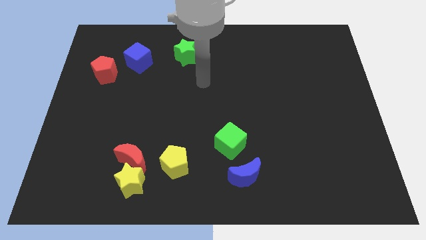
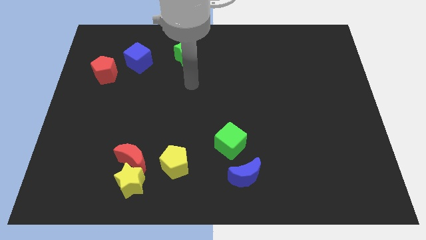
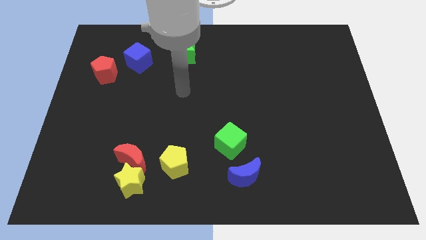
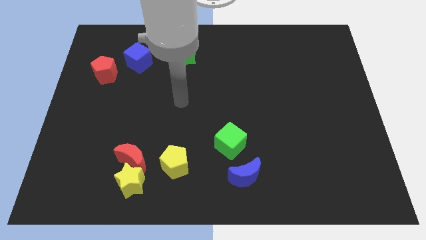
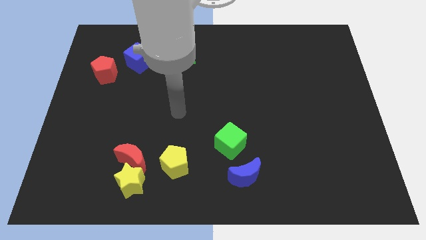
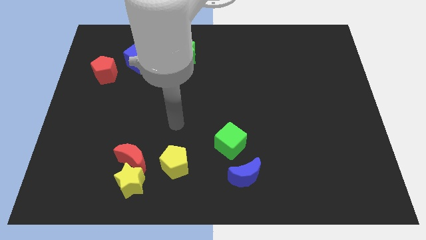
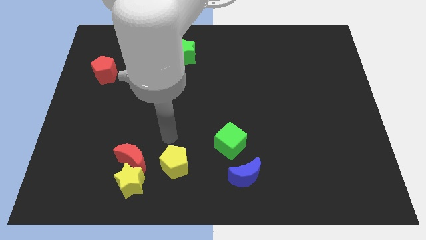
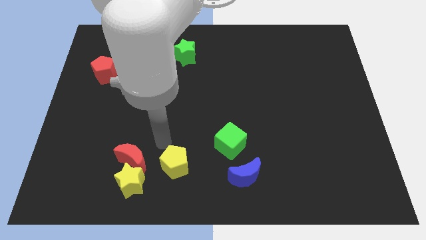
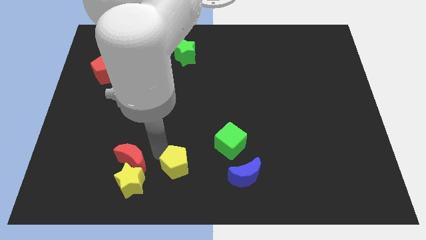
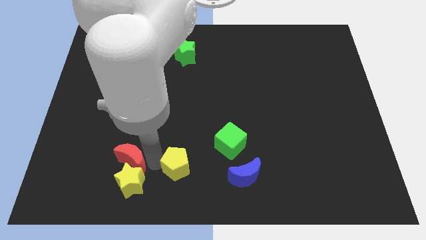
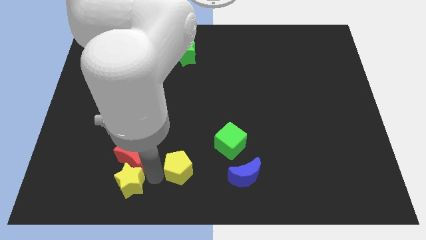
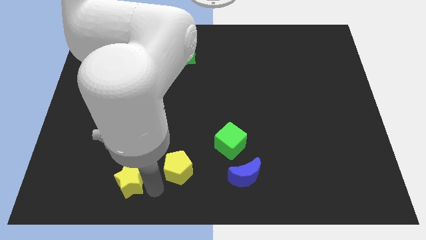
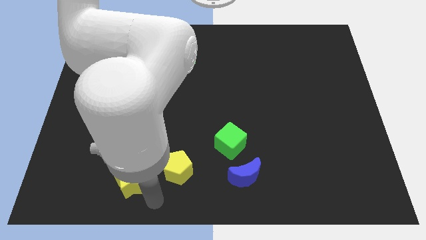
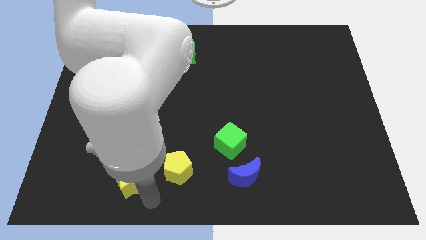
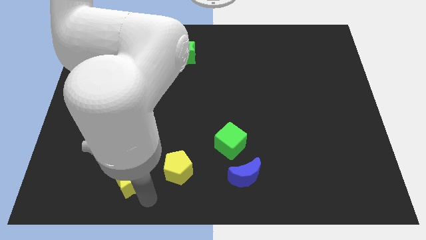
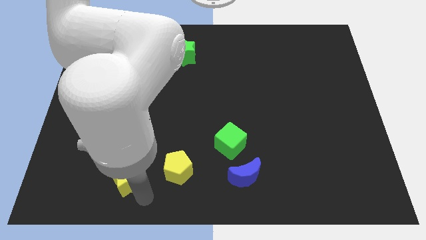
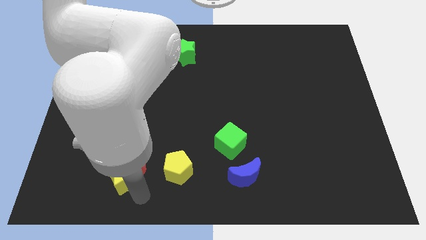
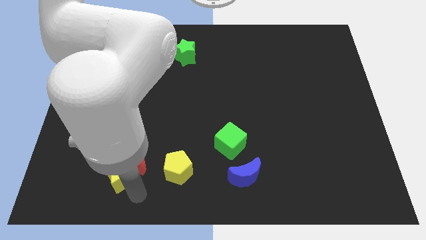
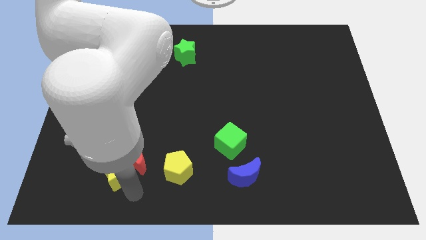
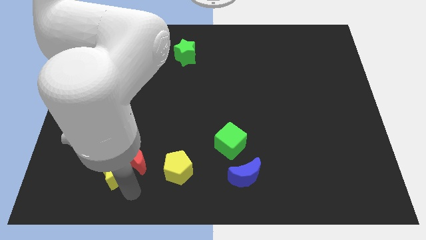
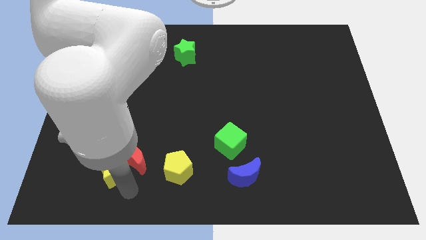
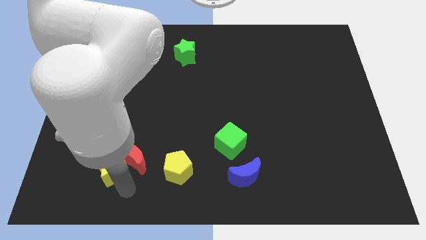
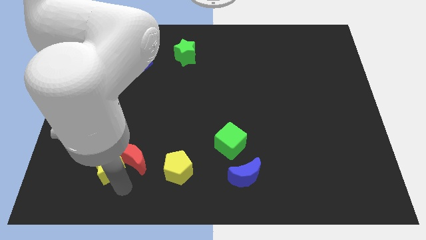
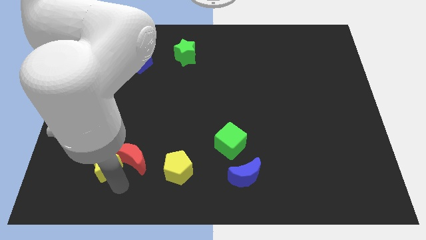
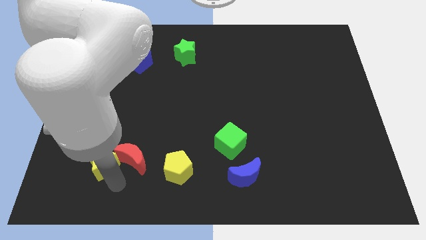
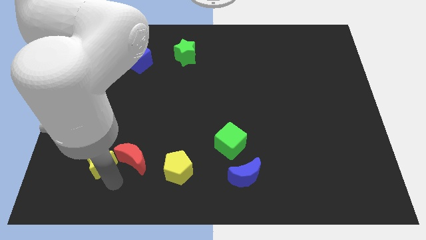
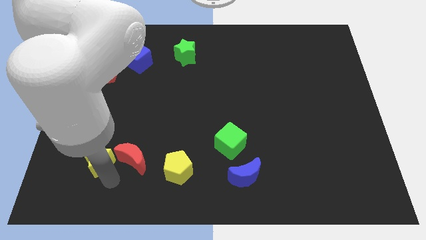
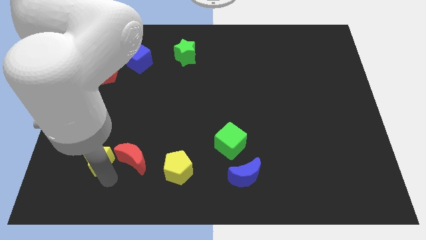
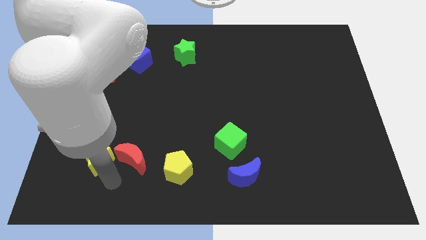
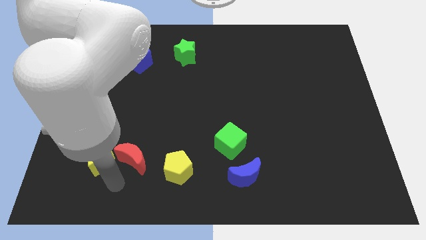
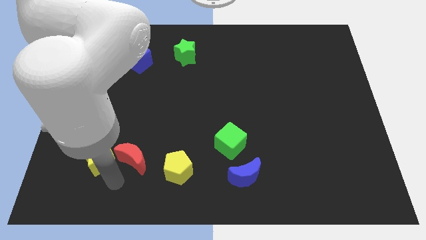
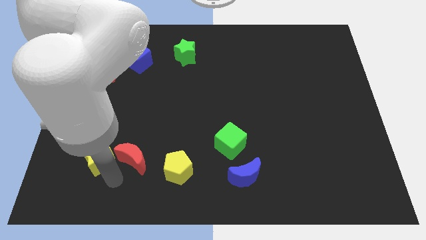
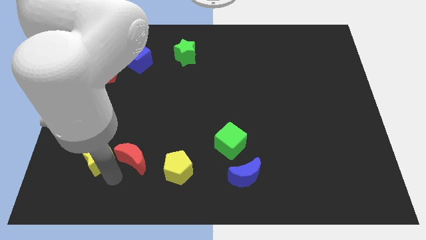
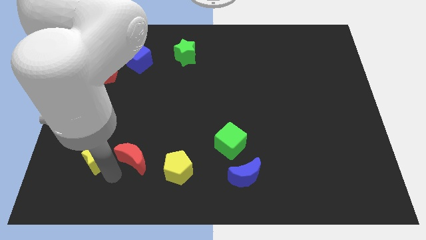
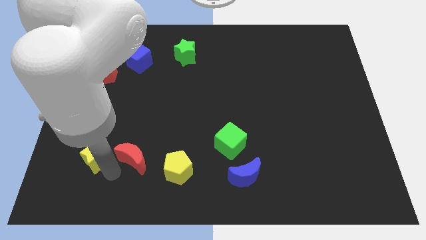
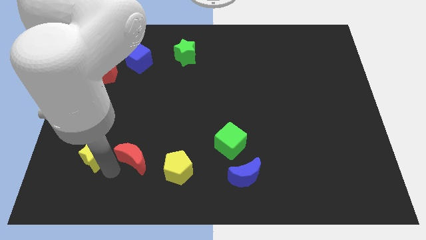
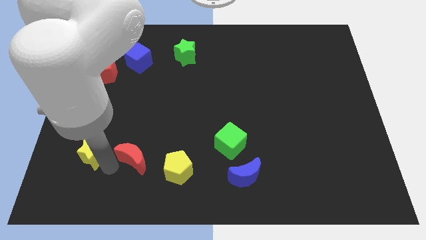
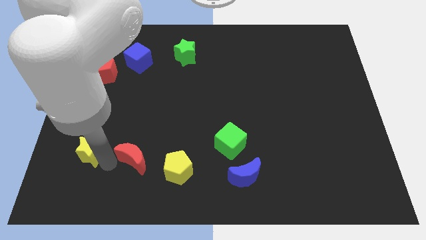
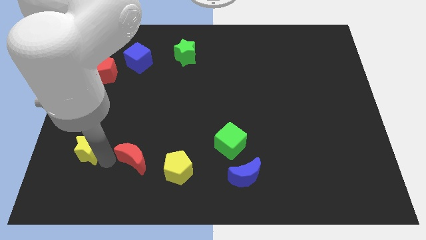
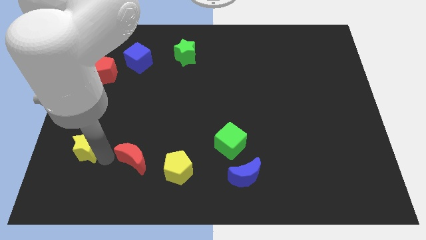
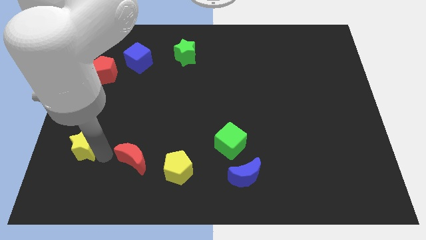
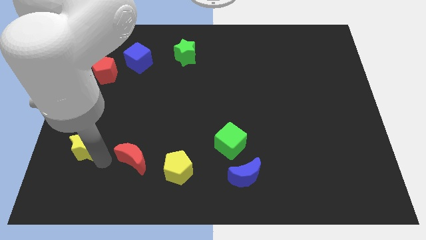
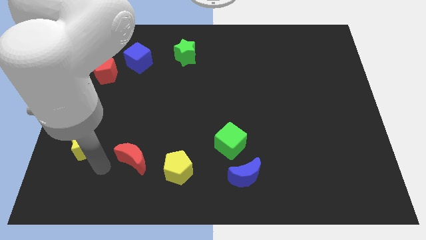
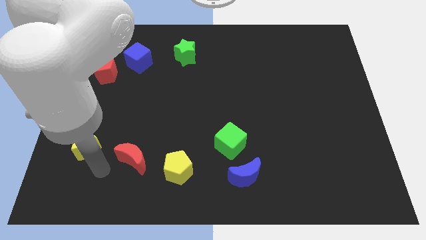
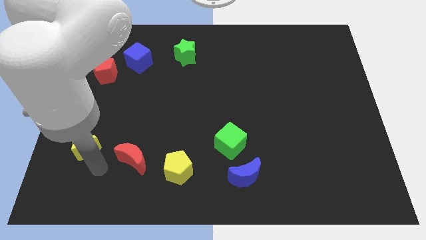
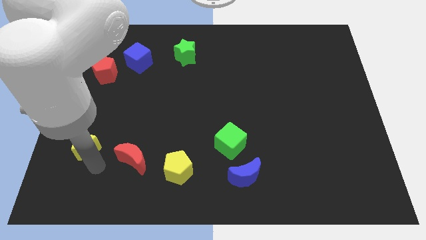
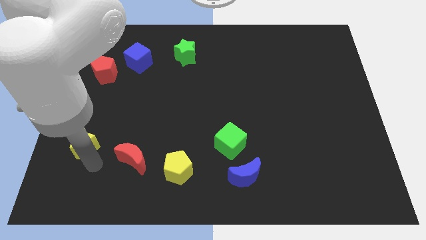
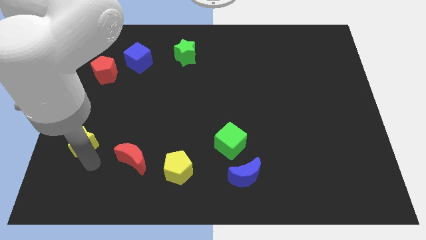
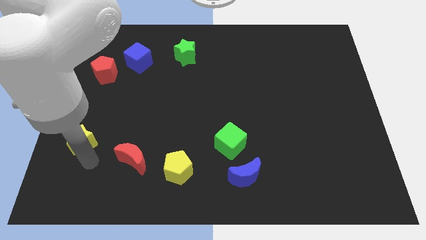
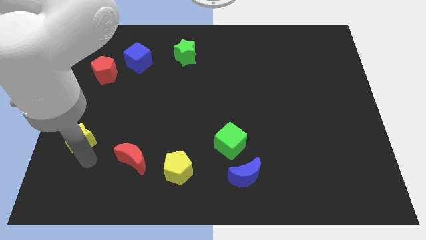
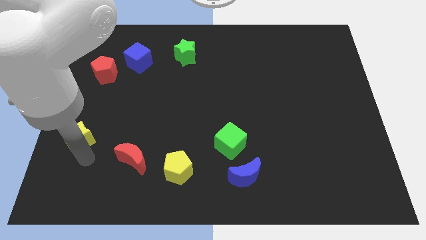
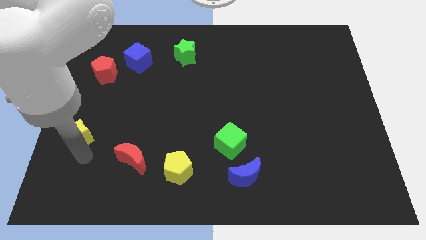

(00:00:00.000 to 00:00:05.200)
push the yellow star to the left side

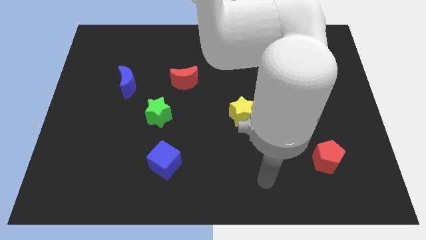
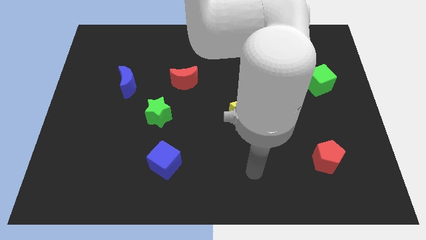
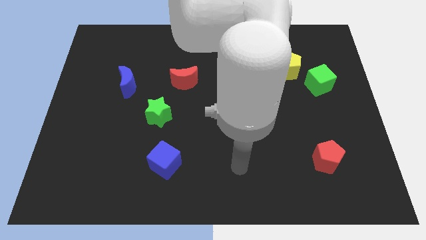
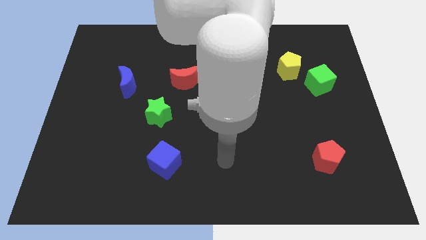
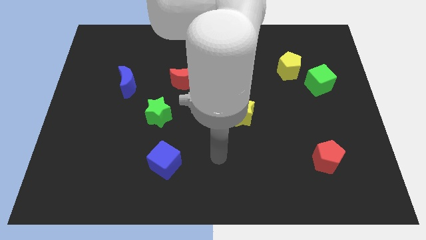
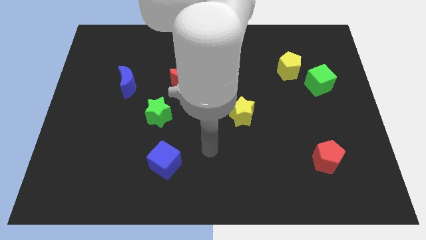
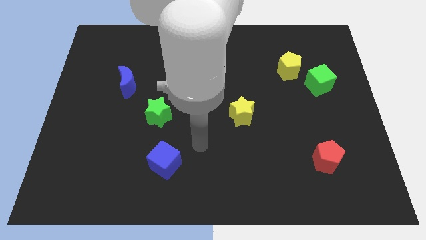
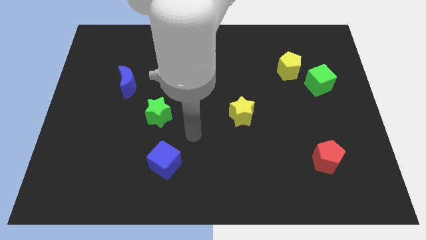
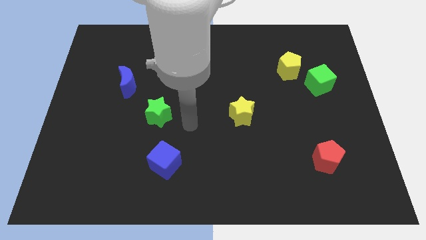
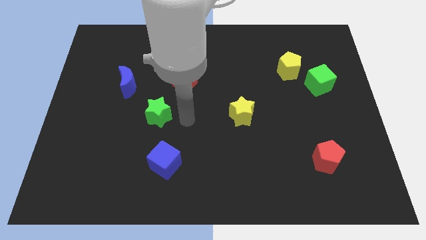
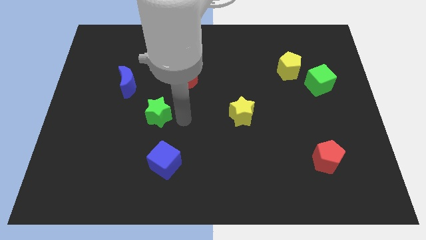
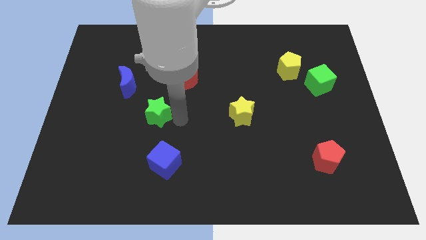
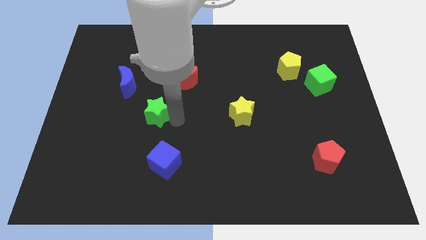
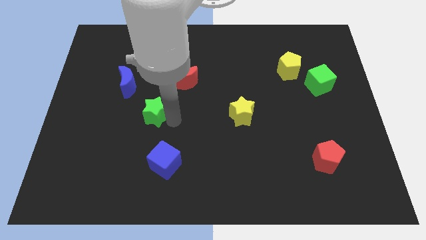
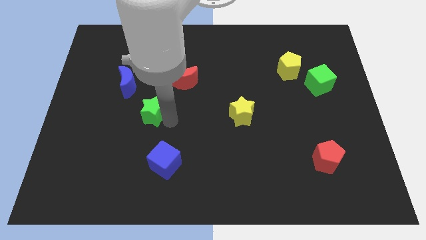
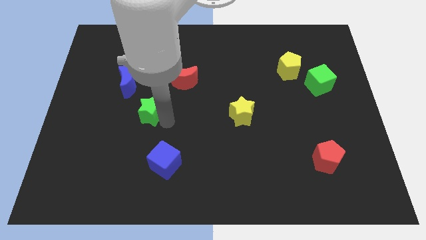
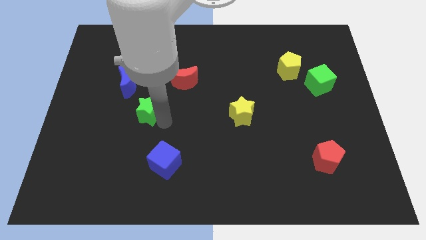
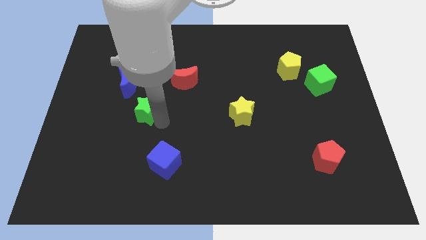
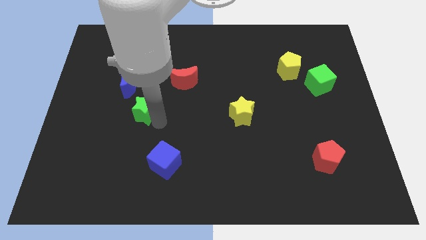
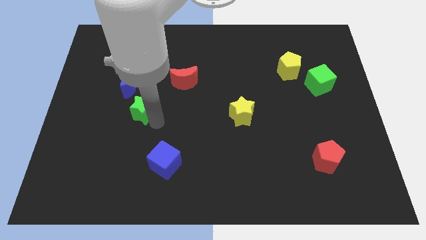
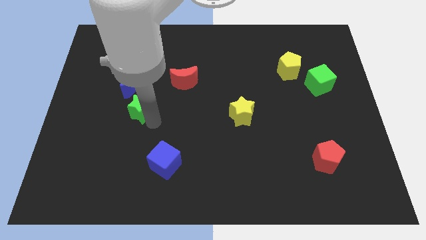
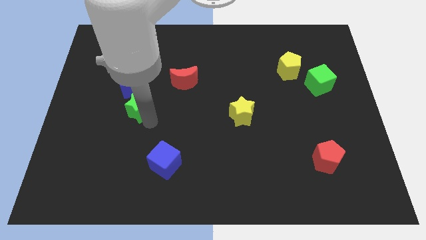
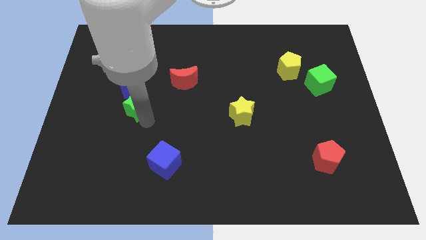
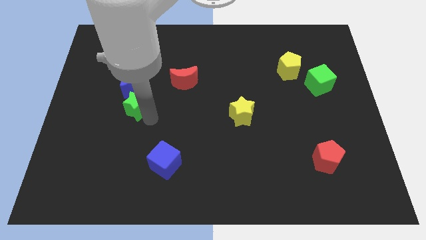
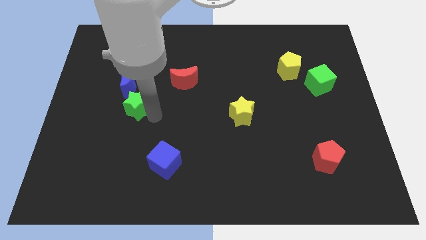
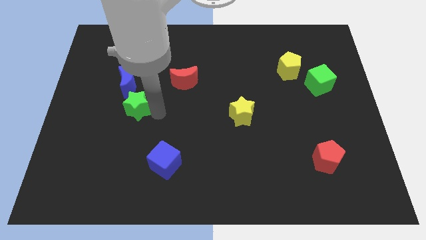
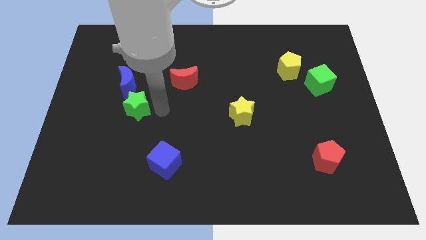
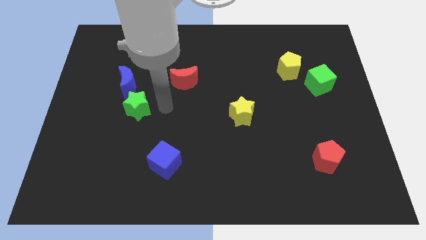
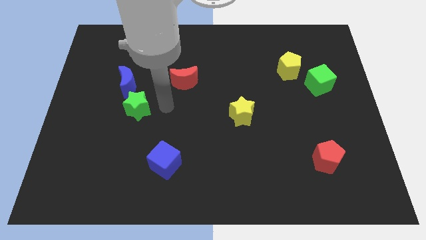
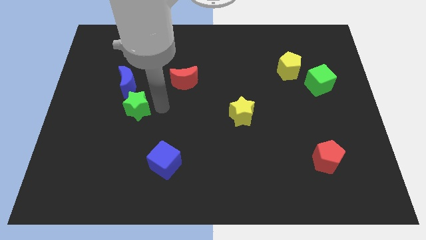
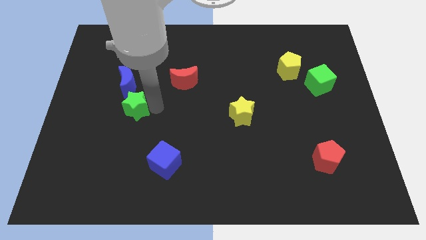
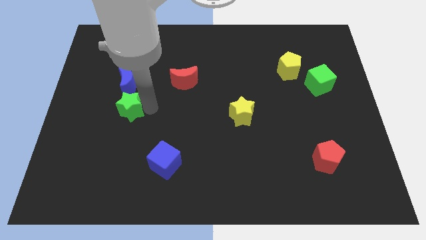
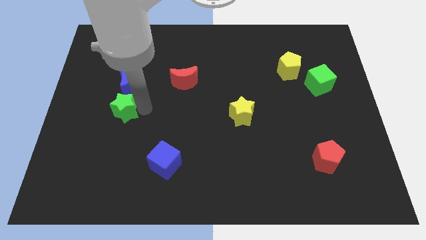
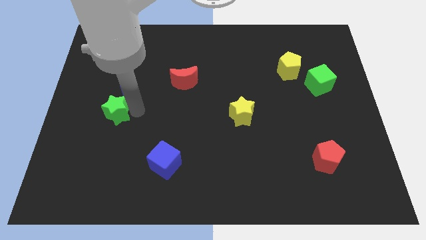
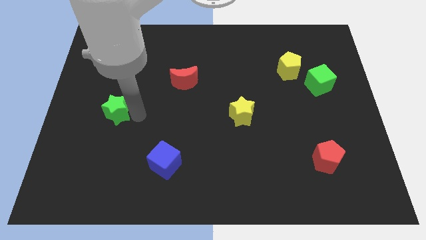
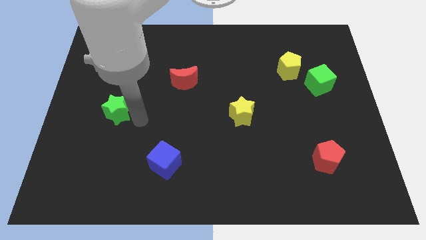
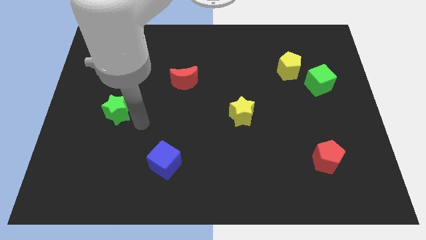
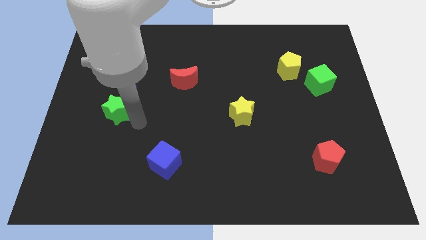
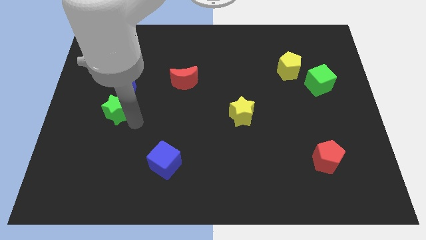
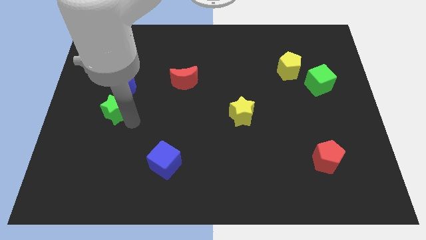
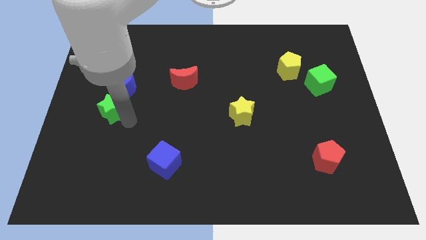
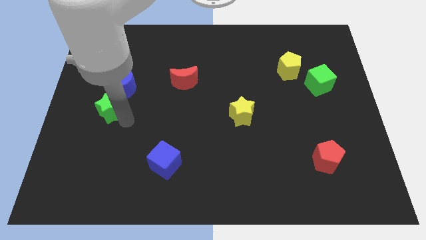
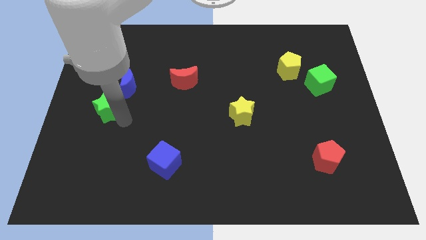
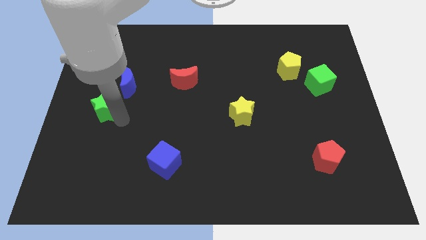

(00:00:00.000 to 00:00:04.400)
move the green star to the center left
